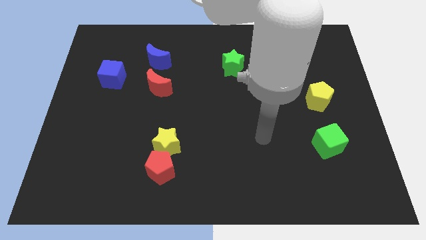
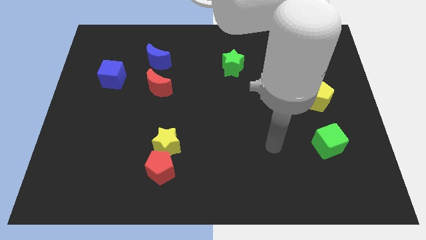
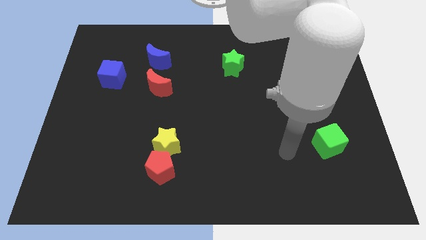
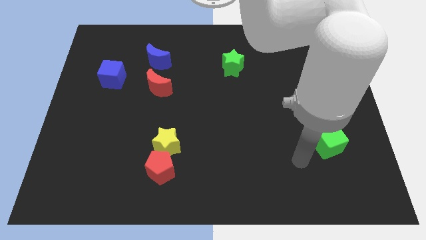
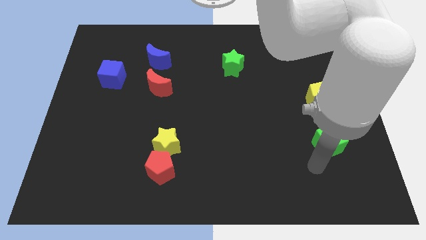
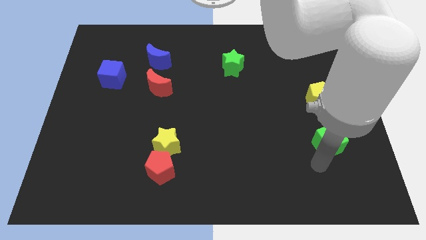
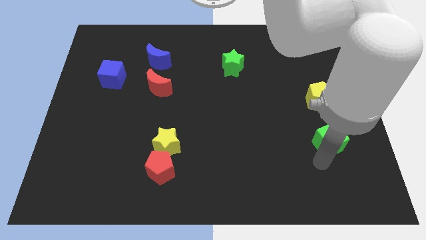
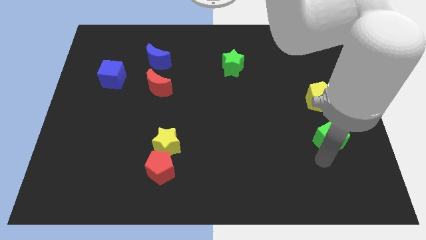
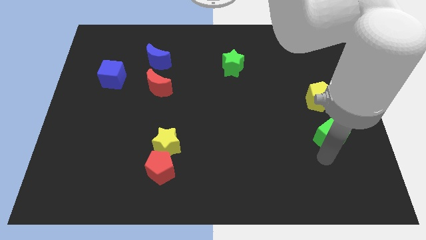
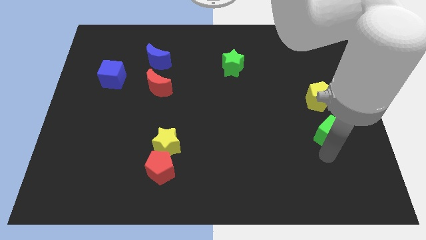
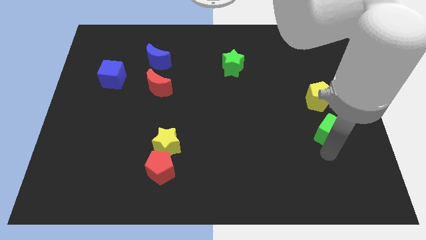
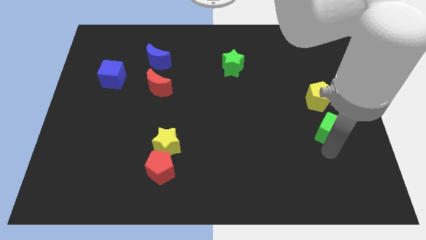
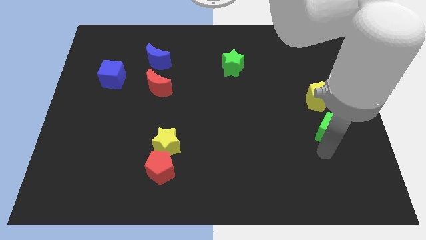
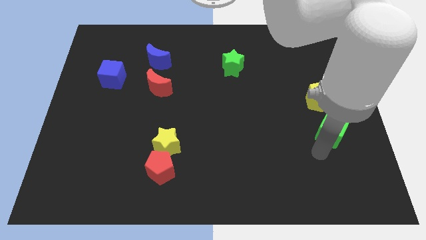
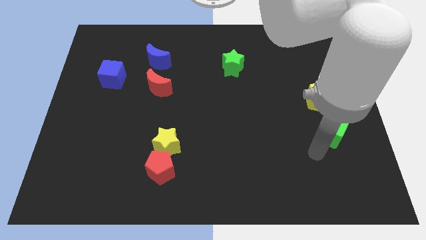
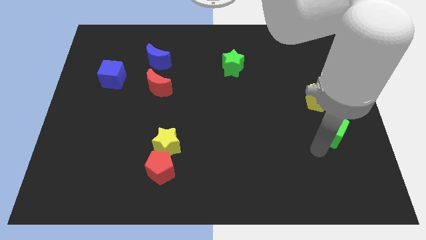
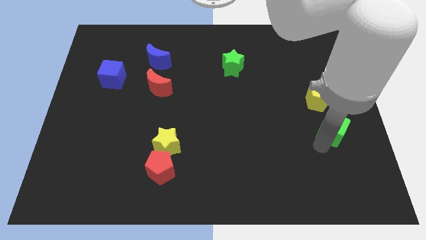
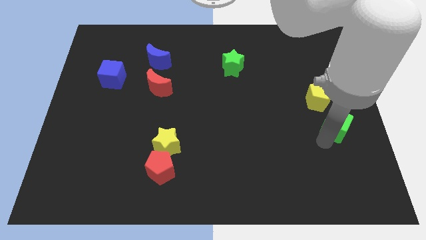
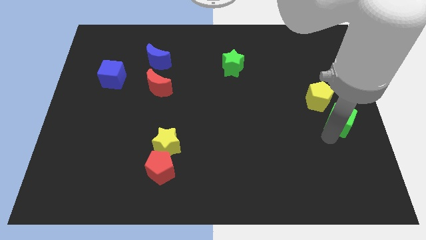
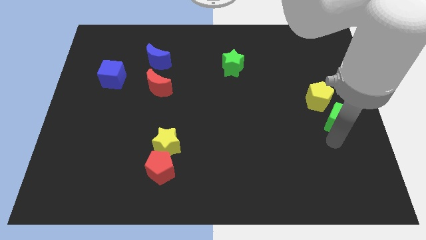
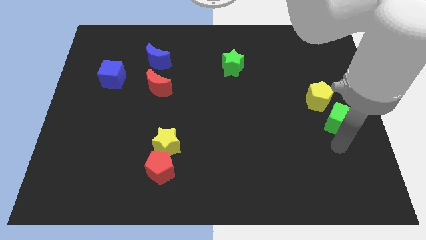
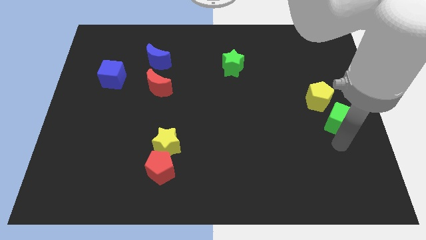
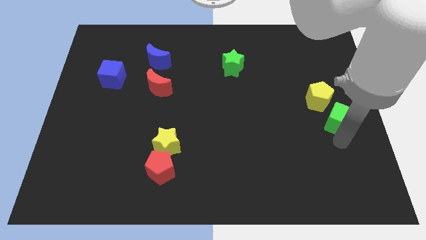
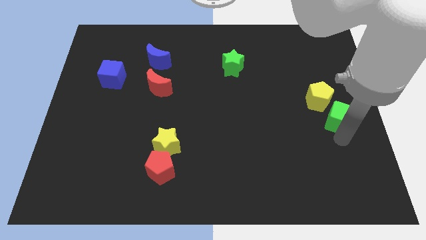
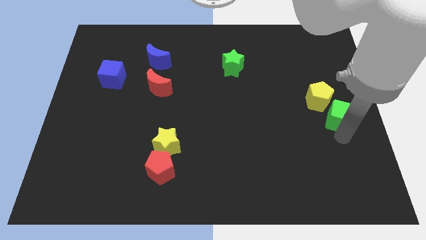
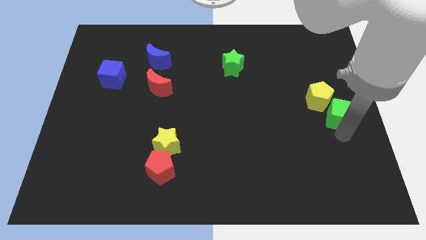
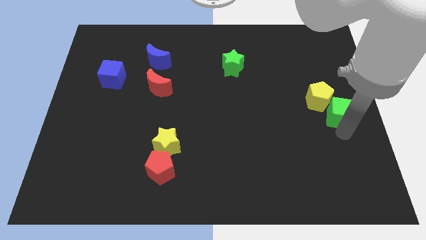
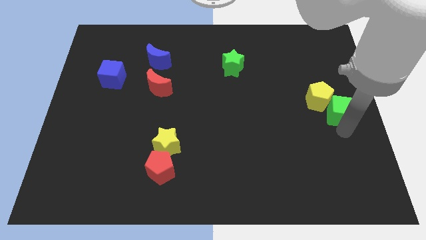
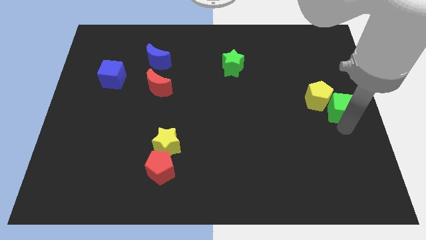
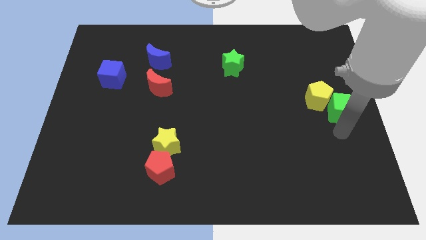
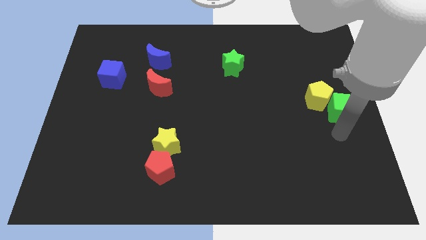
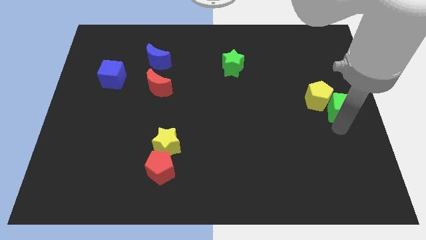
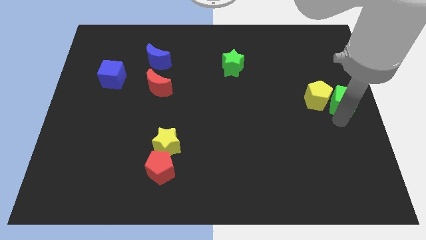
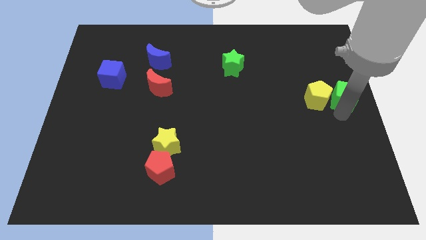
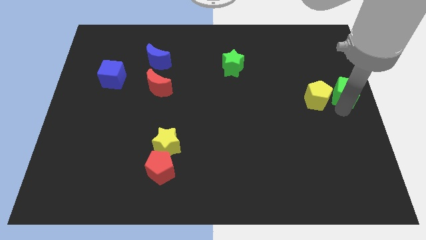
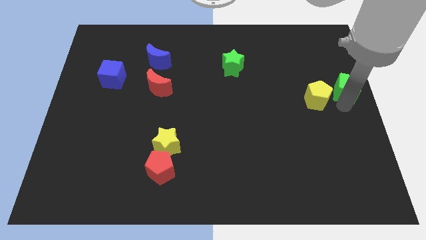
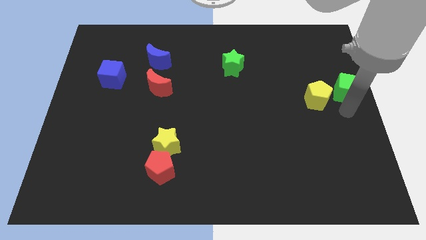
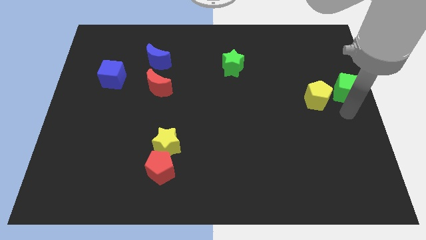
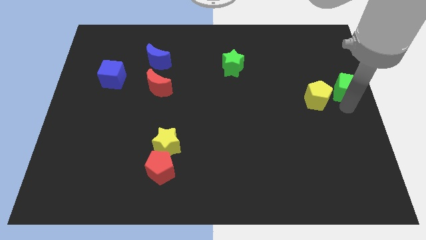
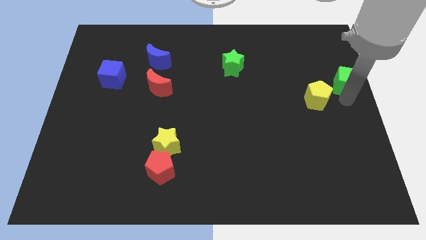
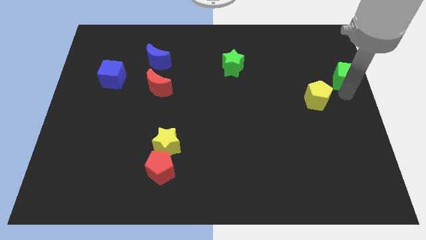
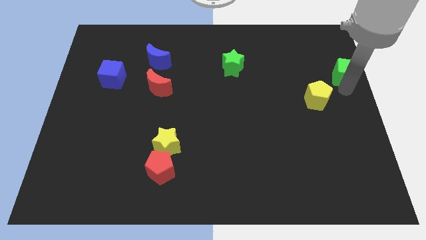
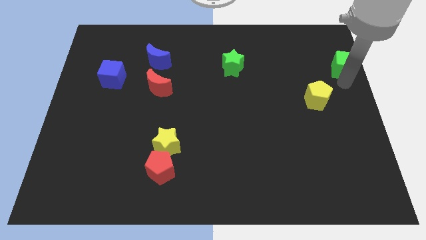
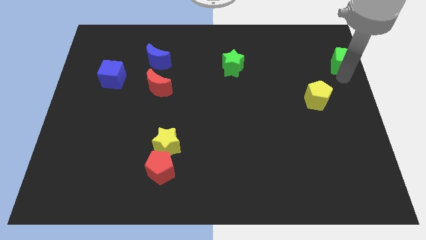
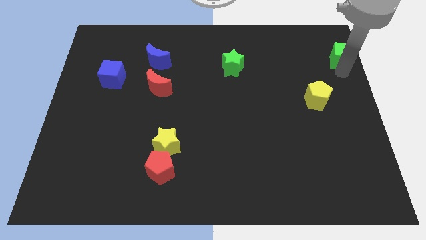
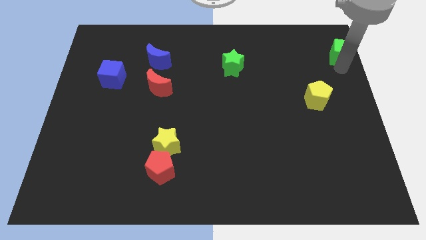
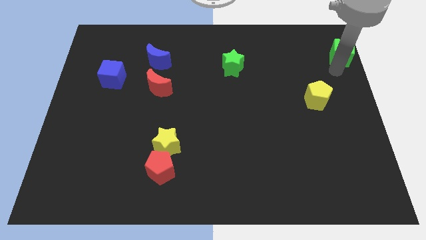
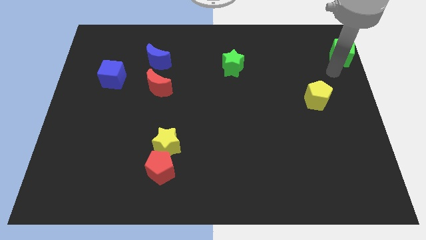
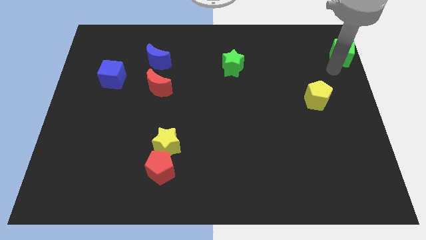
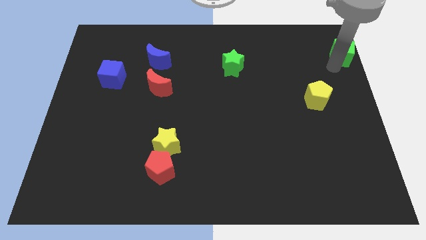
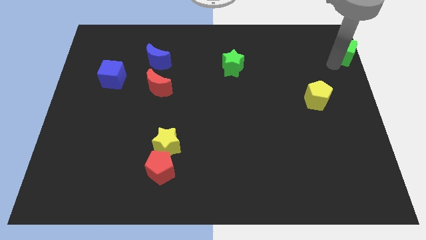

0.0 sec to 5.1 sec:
move the green cube to the top right corner

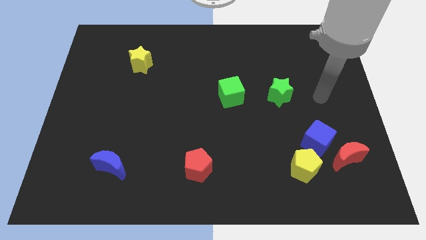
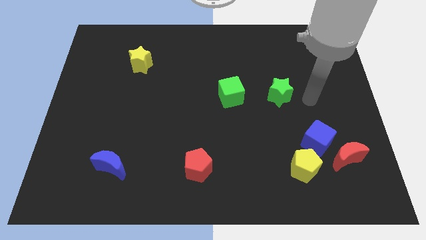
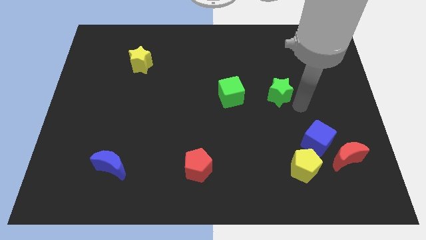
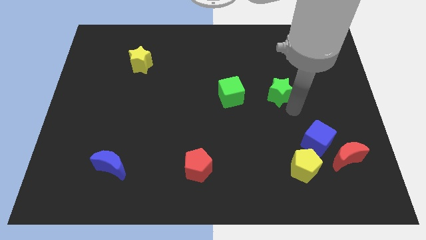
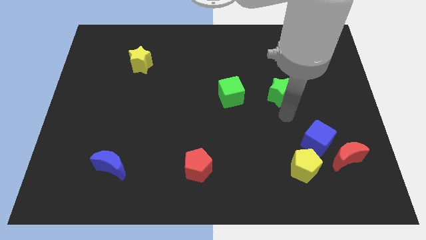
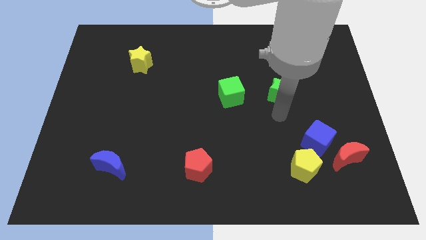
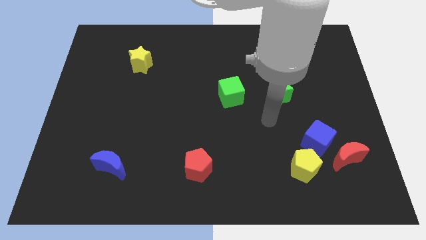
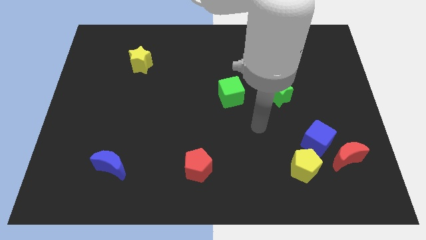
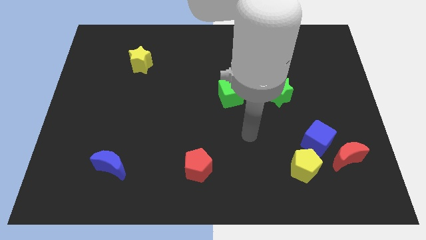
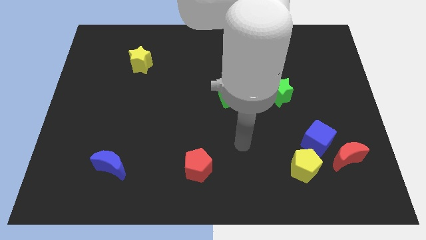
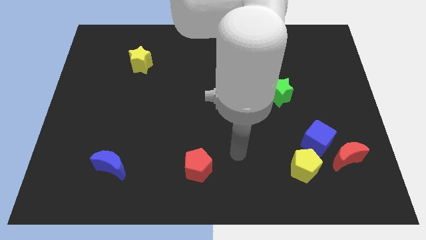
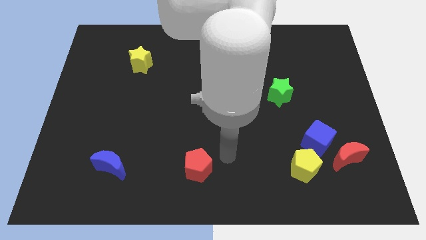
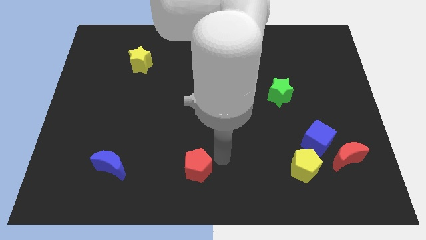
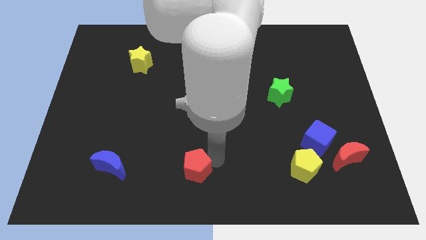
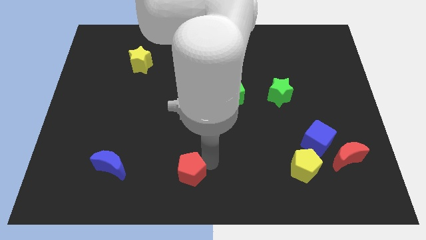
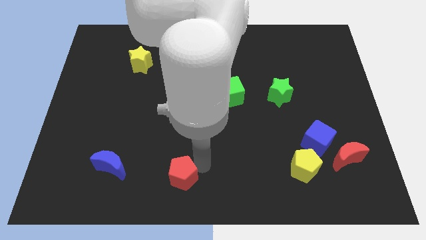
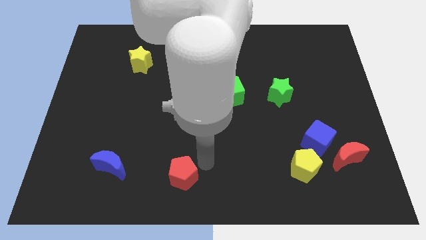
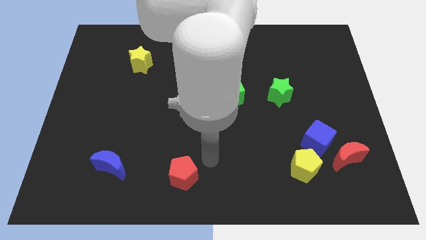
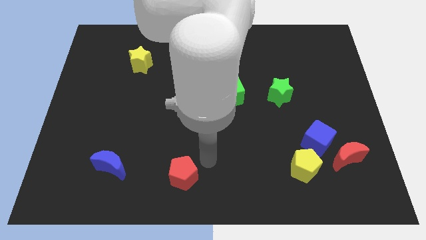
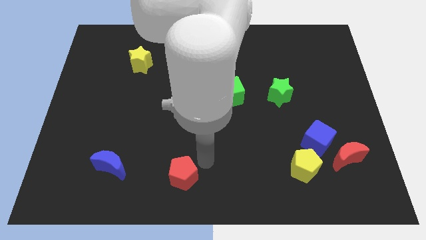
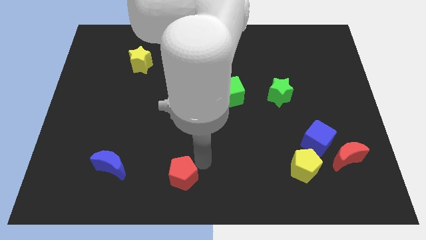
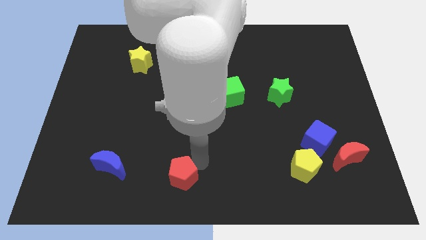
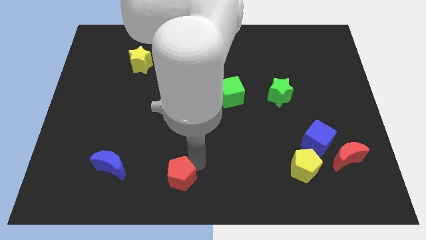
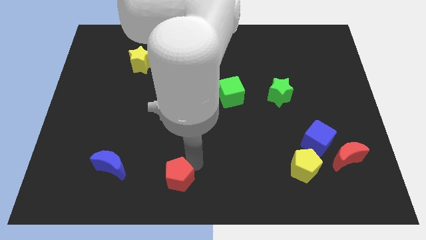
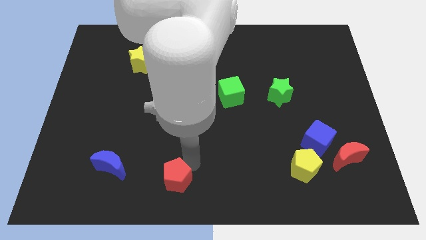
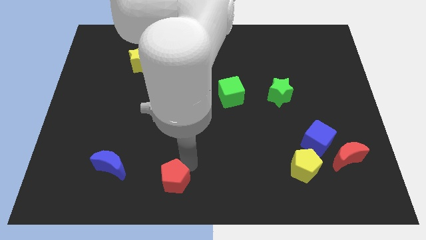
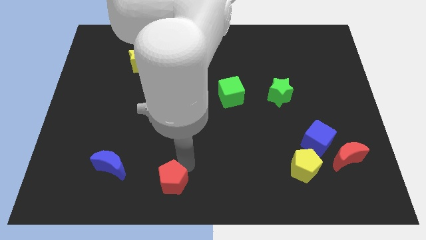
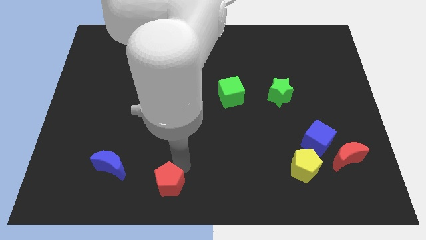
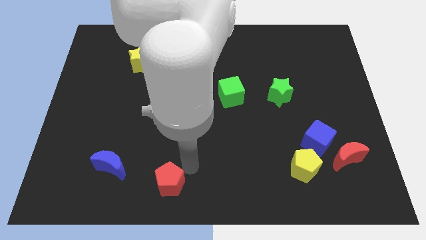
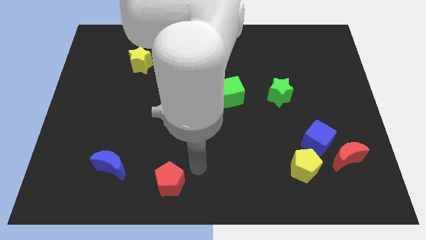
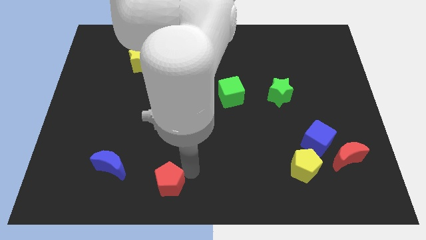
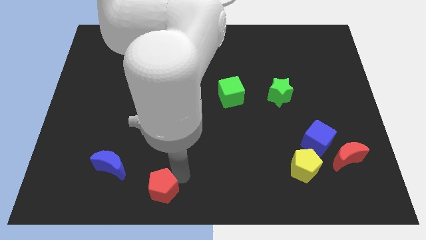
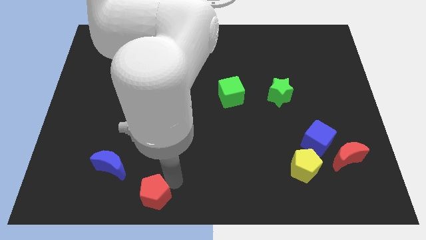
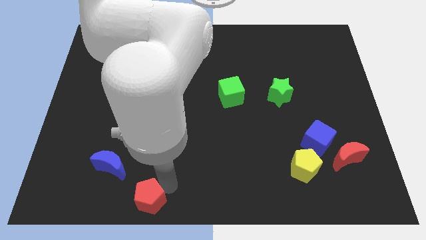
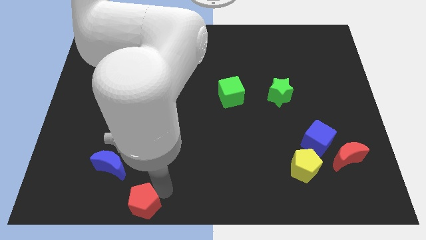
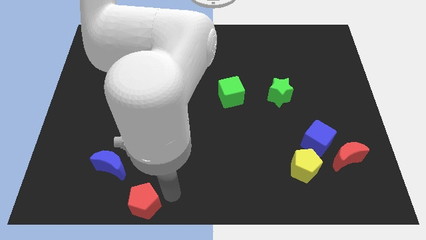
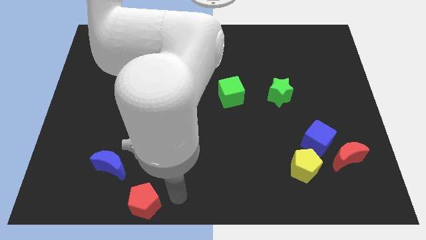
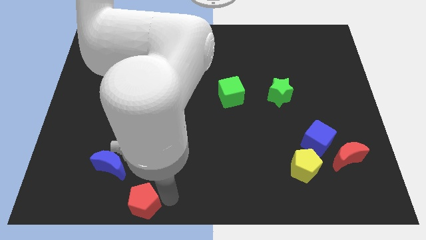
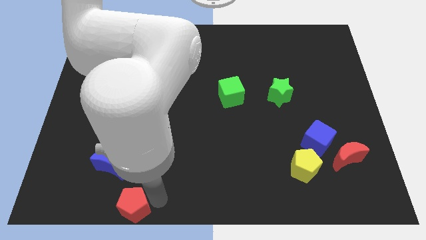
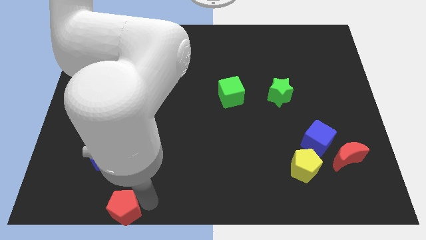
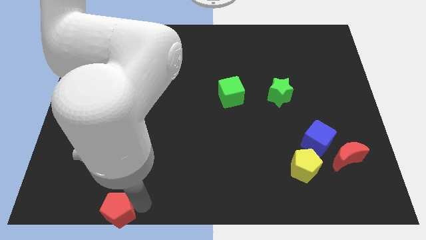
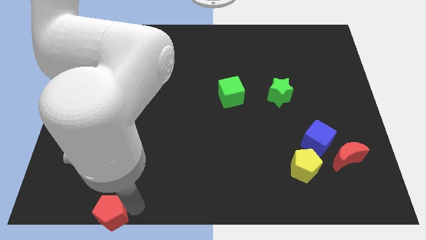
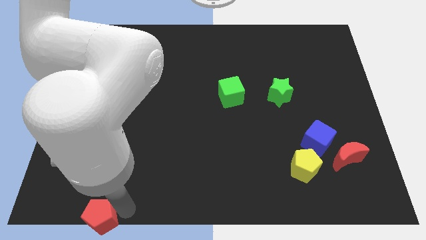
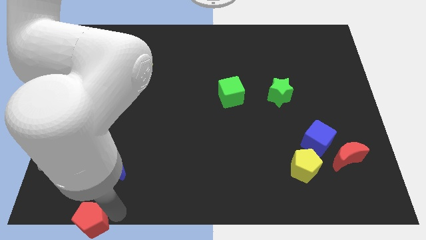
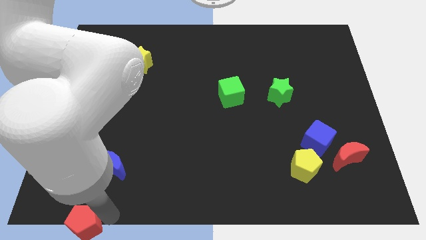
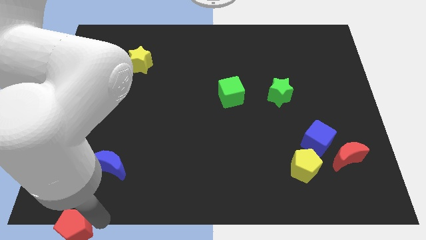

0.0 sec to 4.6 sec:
slide the red pentagon to the bottom left corner
